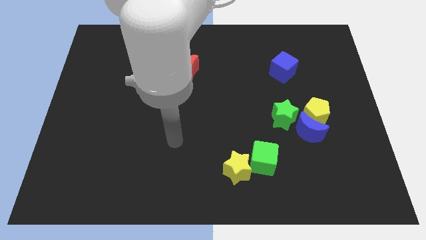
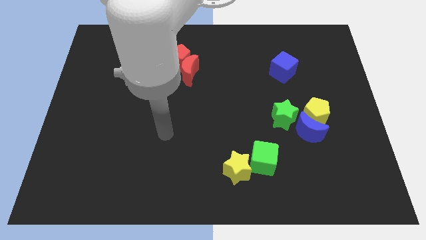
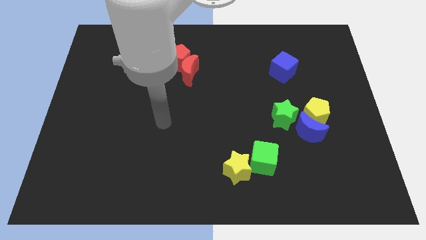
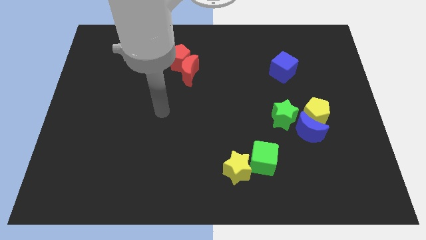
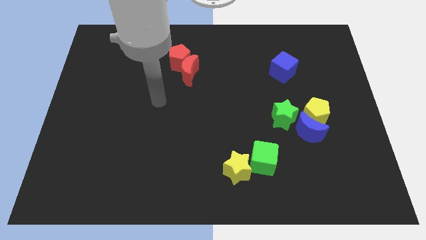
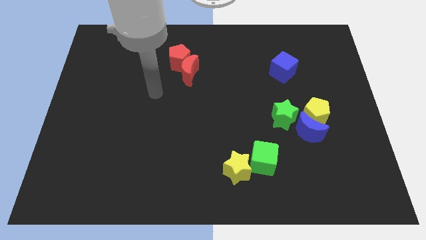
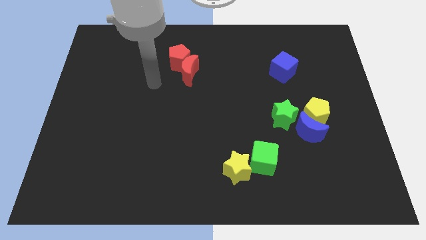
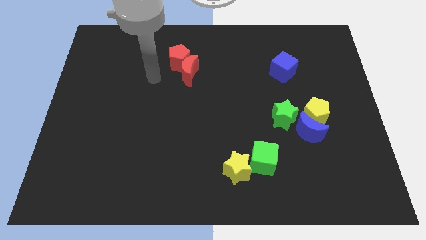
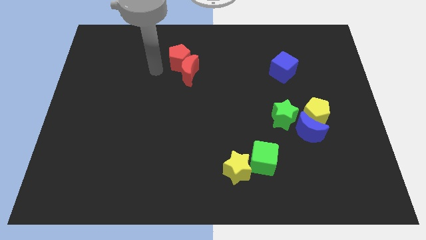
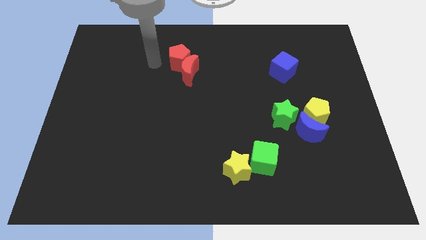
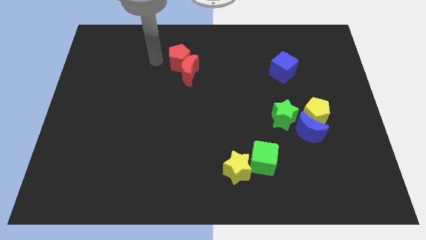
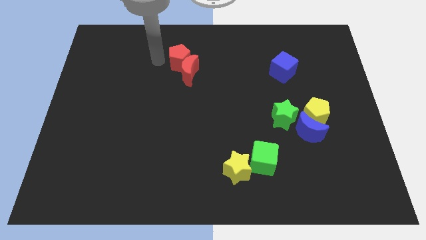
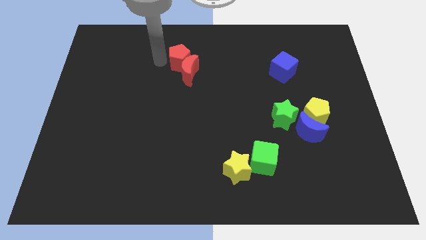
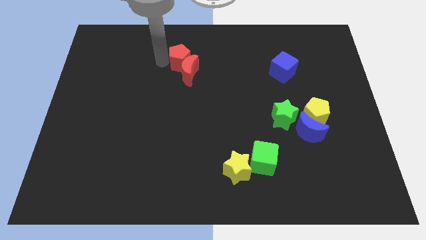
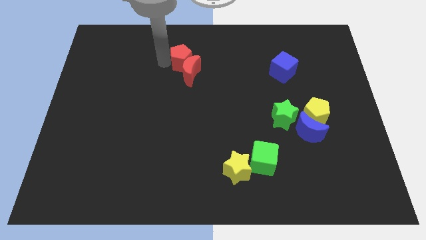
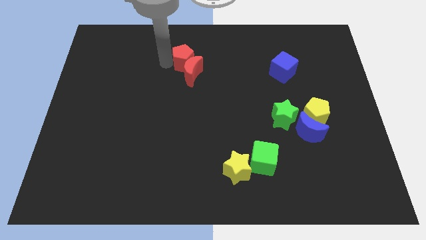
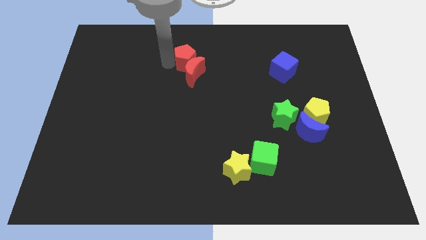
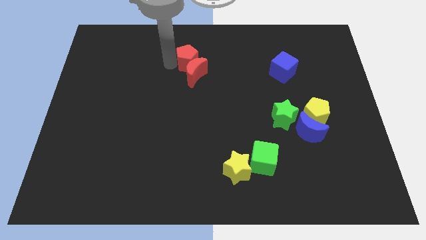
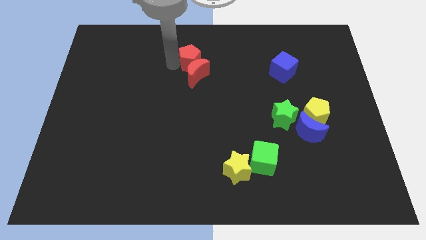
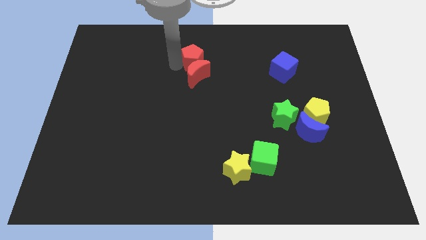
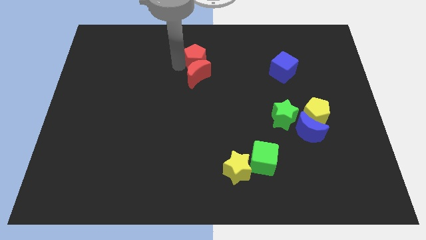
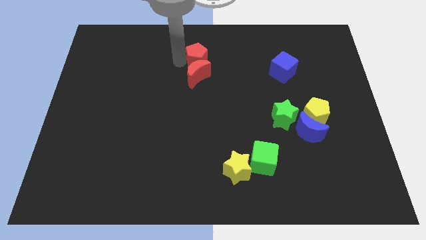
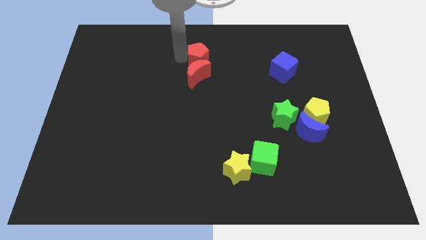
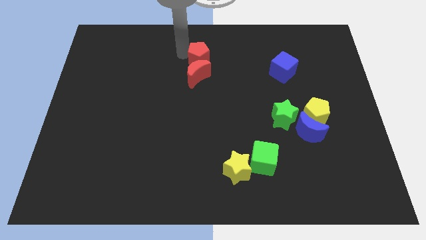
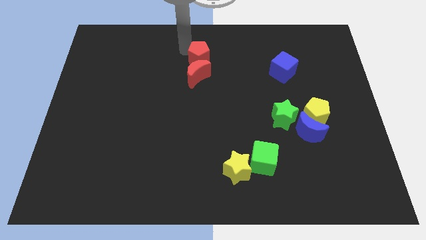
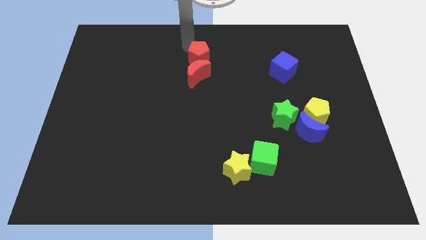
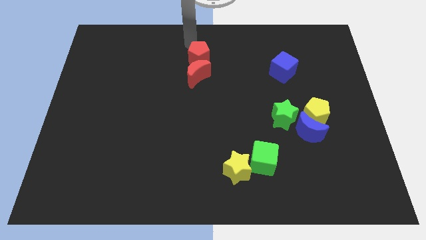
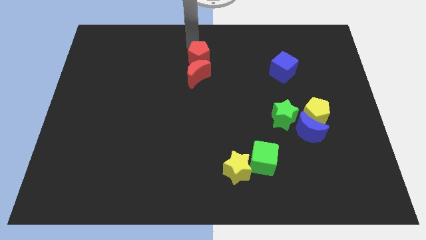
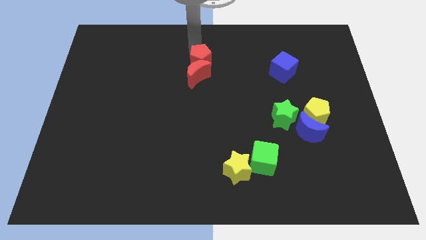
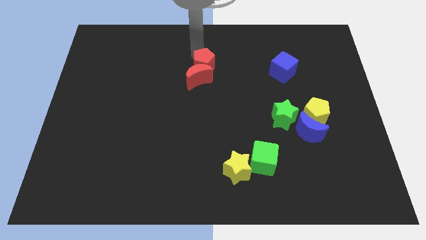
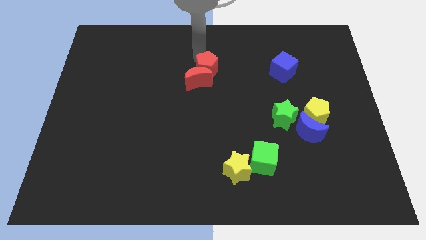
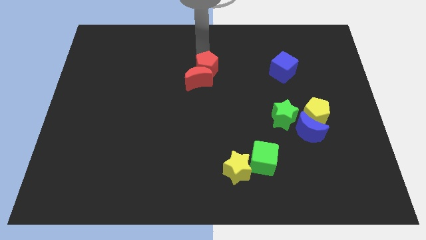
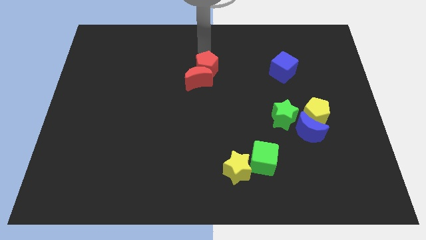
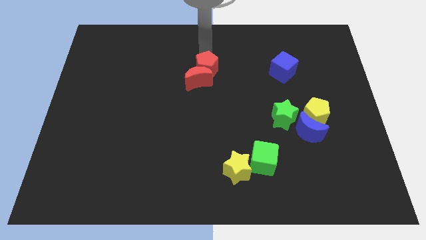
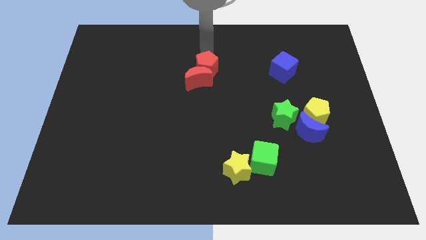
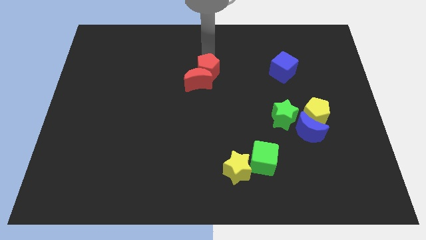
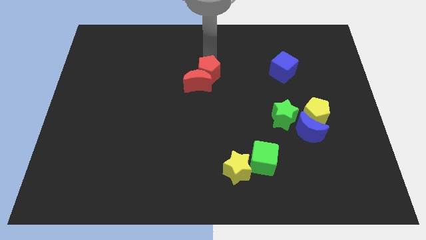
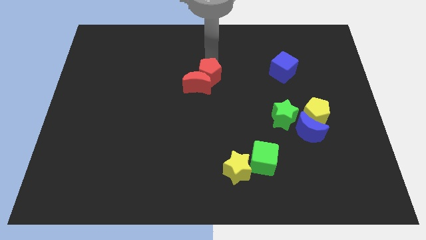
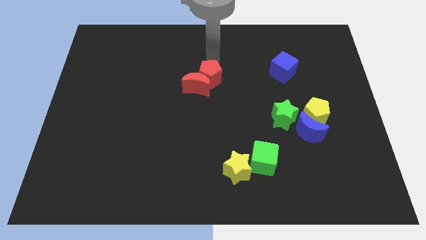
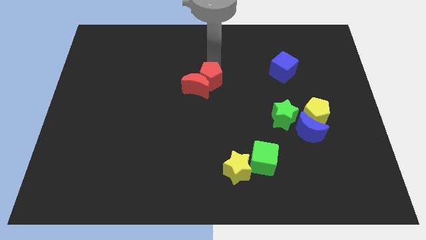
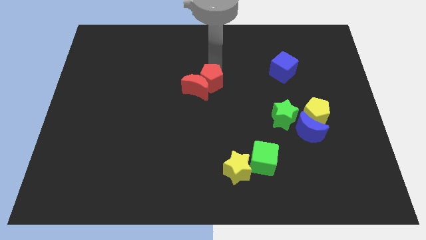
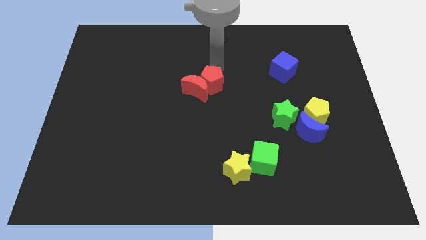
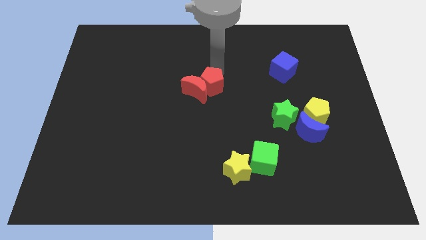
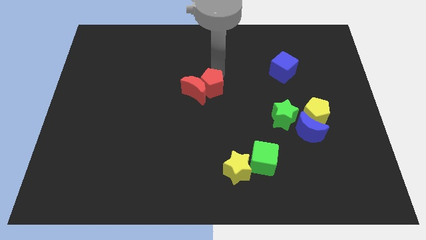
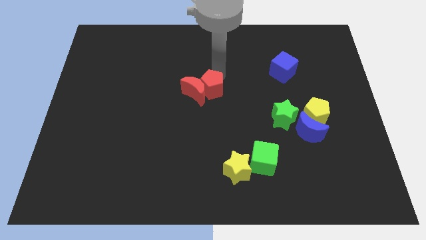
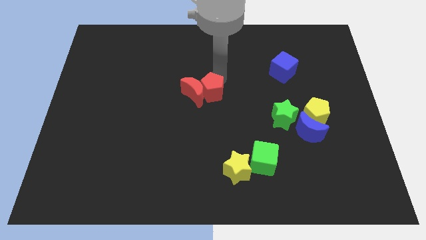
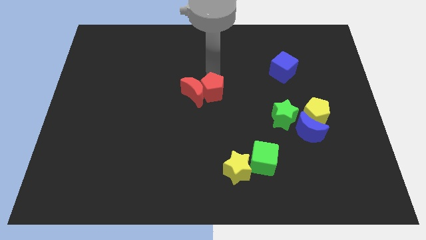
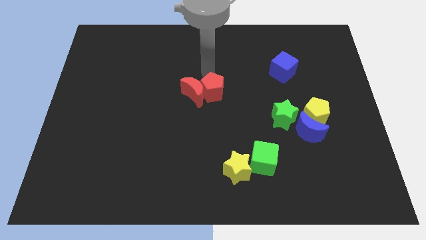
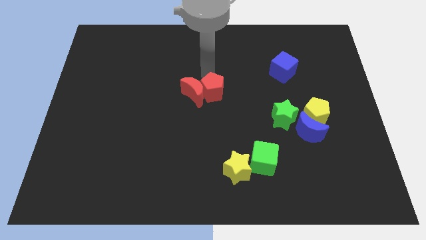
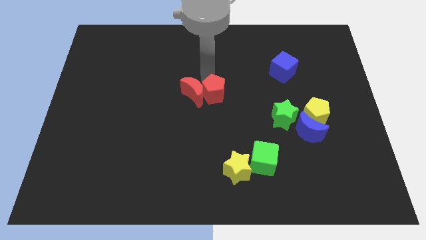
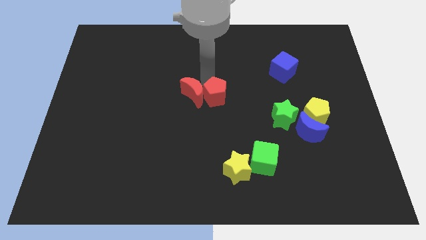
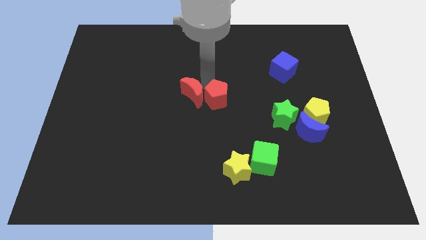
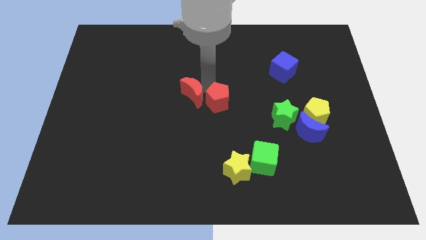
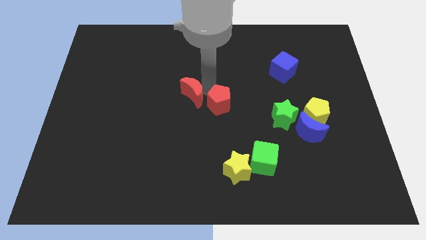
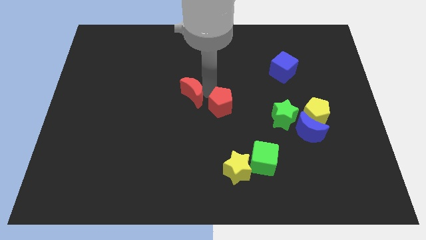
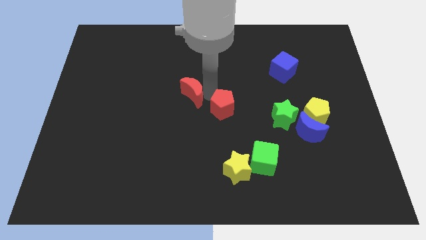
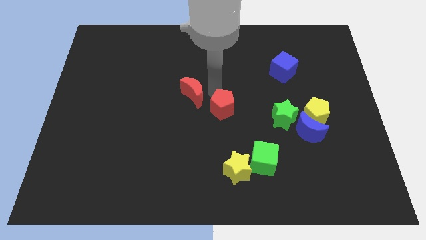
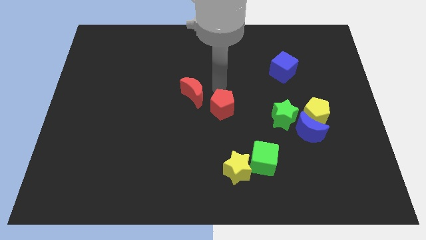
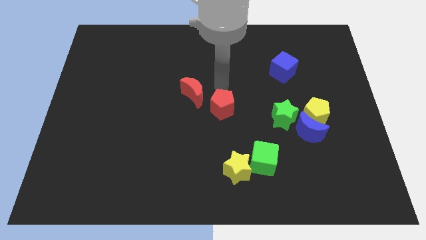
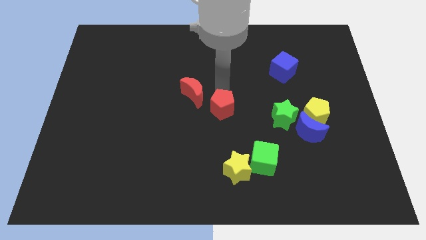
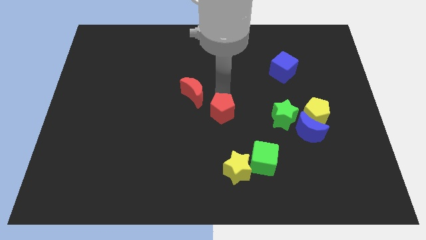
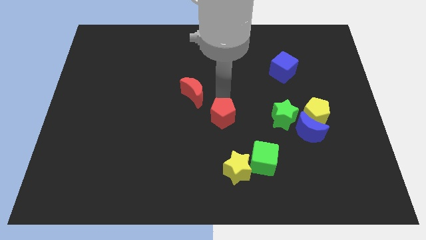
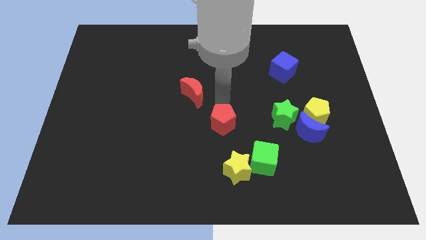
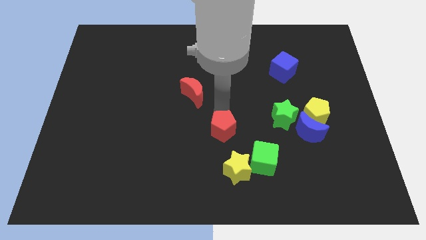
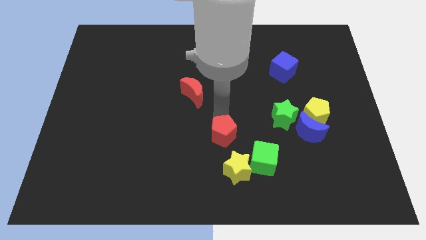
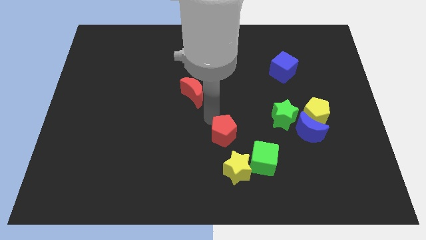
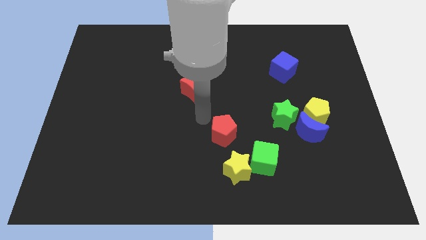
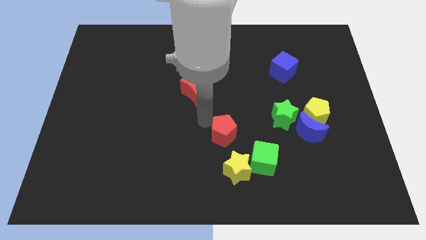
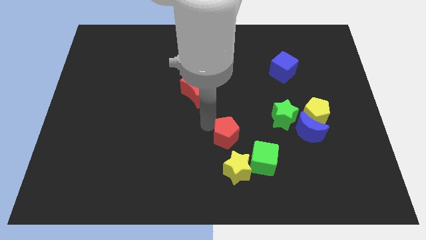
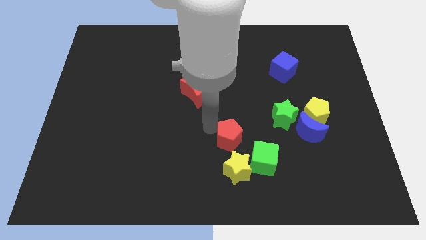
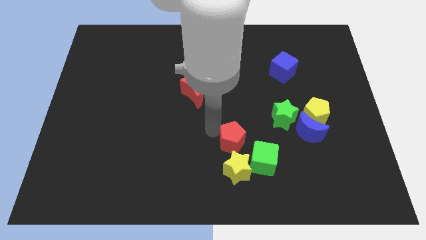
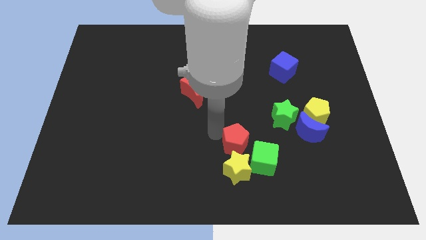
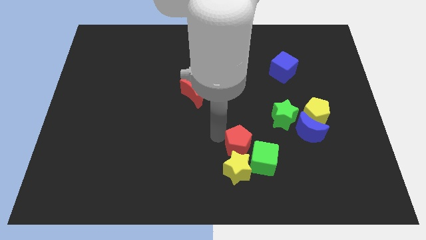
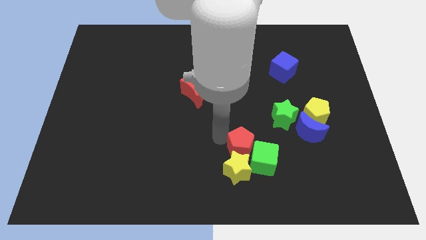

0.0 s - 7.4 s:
move the red pentagon towards the green cube
